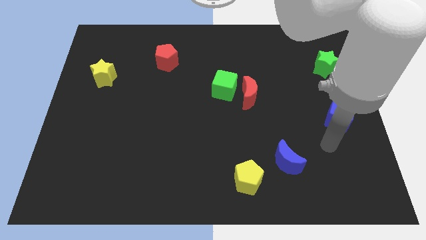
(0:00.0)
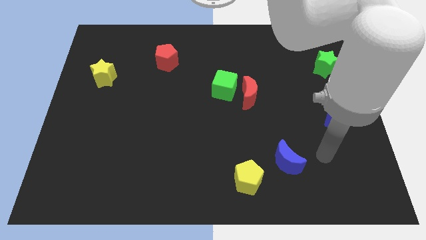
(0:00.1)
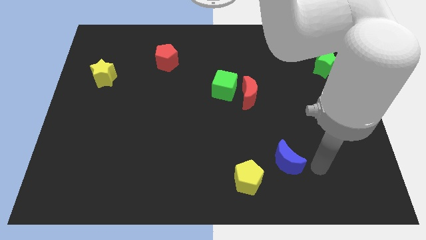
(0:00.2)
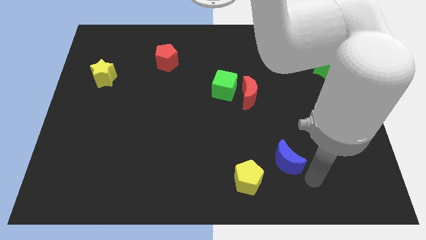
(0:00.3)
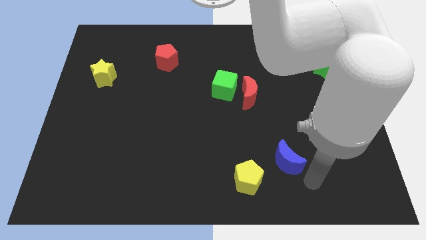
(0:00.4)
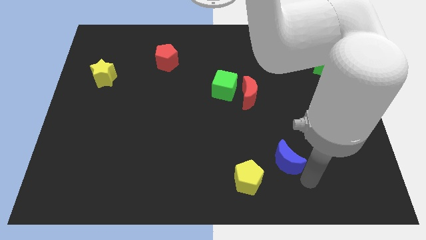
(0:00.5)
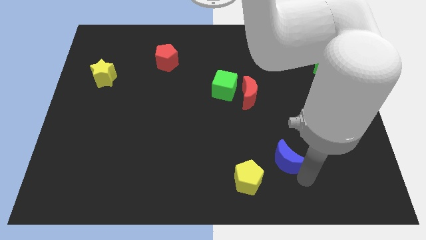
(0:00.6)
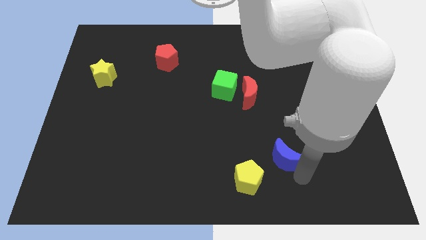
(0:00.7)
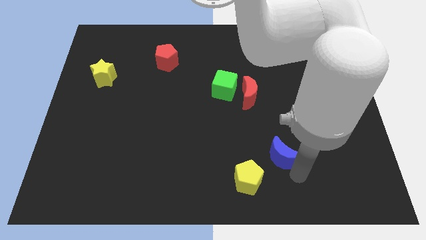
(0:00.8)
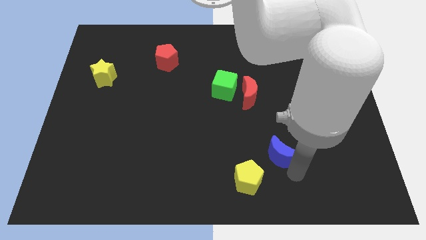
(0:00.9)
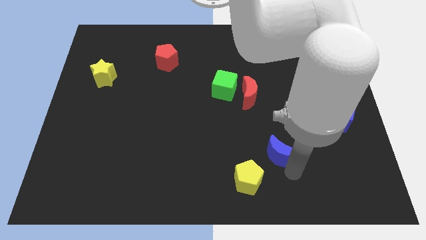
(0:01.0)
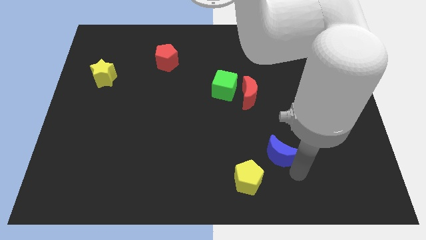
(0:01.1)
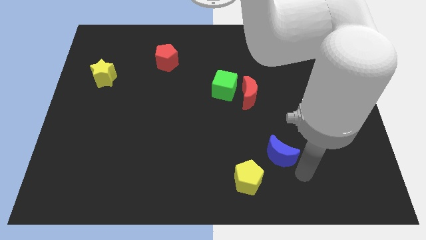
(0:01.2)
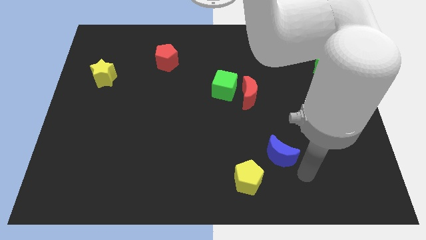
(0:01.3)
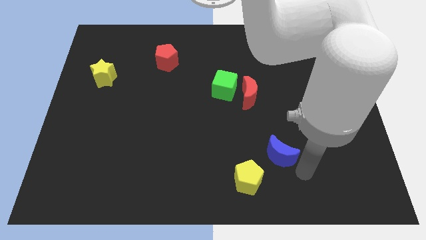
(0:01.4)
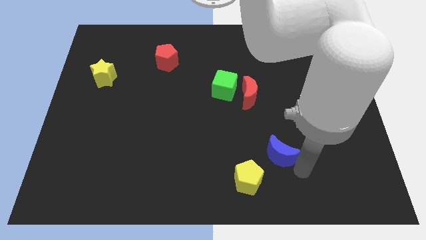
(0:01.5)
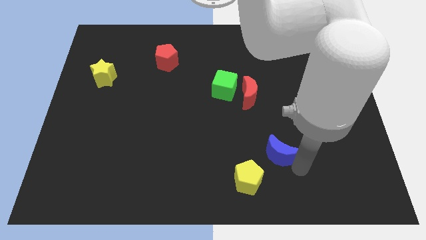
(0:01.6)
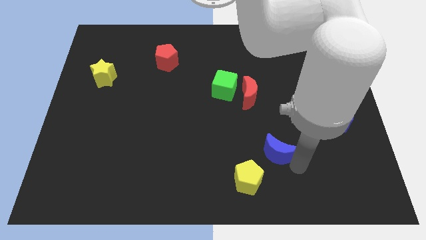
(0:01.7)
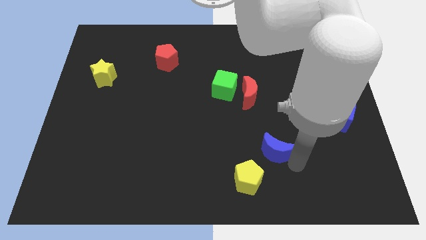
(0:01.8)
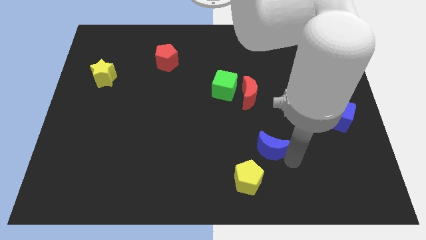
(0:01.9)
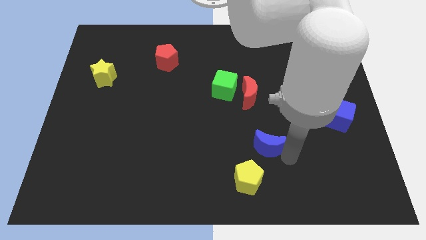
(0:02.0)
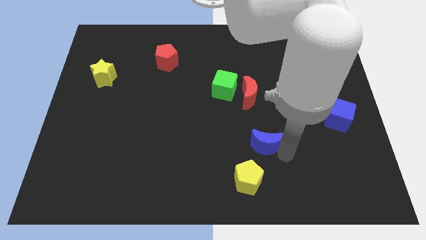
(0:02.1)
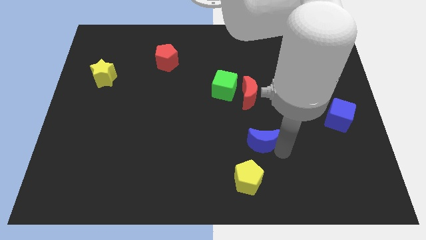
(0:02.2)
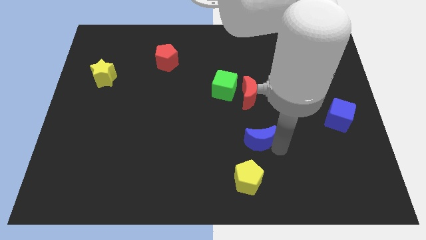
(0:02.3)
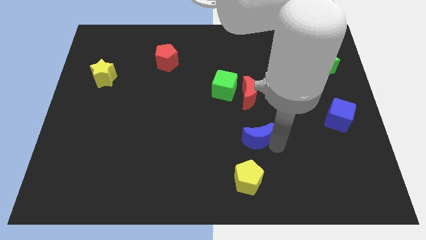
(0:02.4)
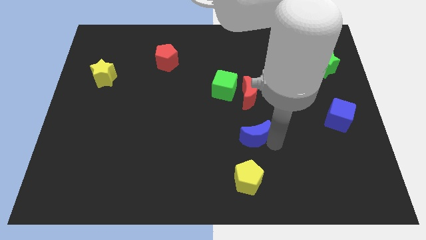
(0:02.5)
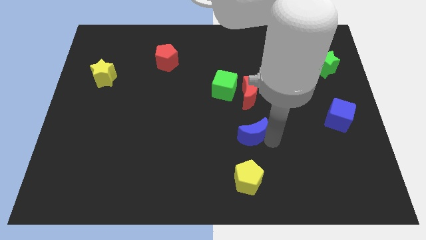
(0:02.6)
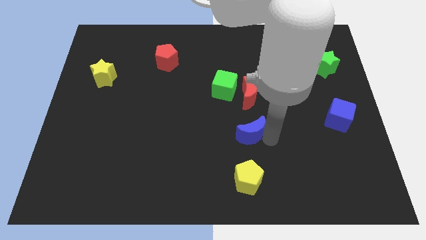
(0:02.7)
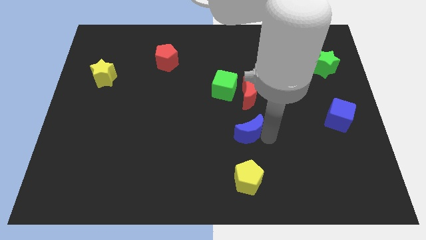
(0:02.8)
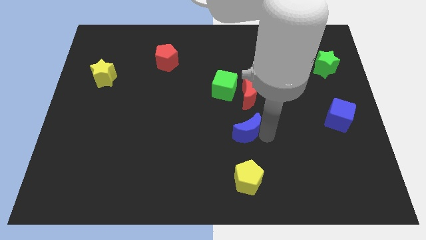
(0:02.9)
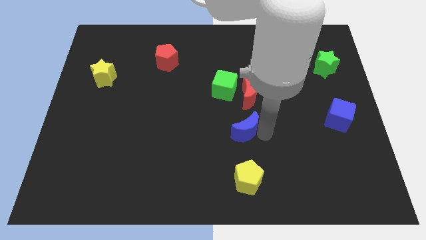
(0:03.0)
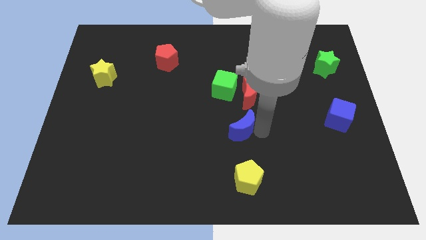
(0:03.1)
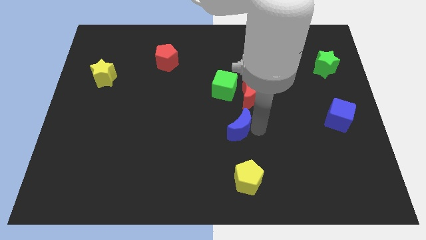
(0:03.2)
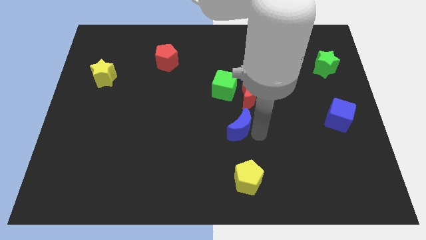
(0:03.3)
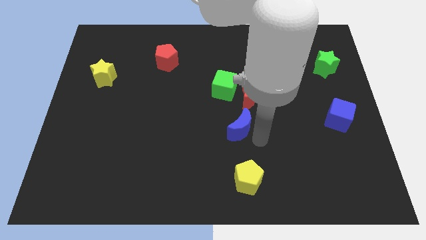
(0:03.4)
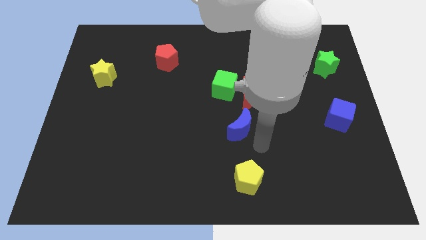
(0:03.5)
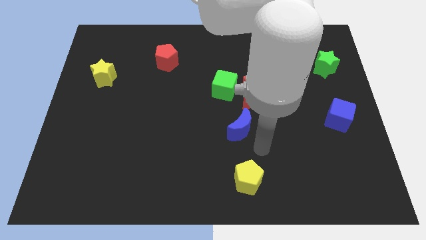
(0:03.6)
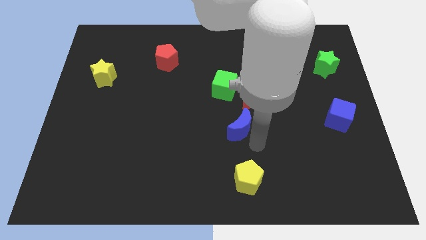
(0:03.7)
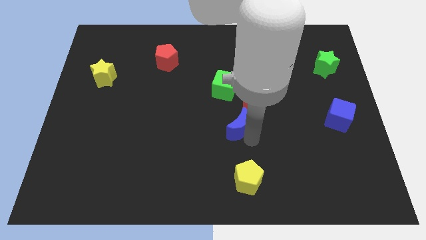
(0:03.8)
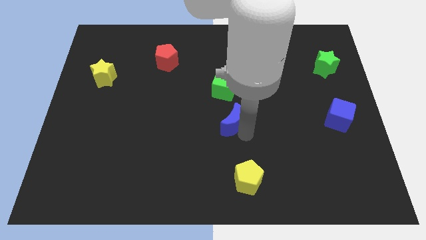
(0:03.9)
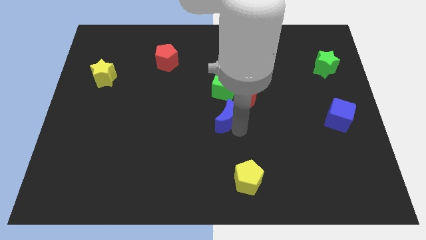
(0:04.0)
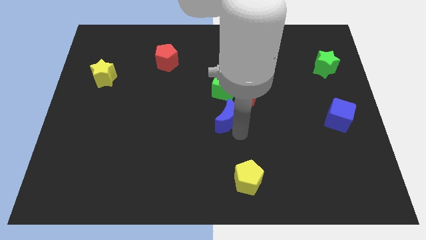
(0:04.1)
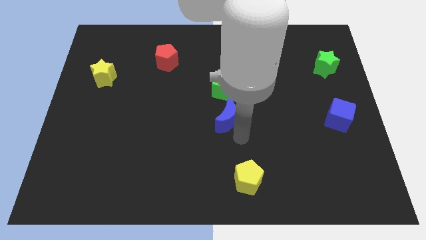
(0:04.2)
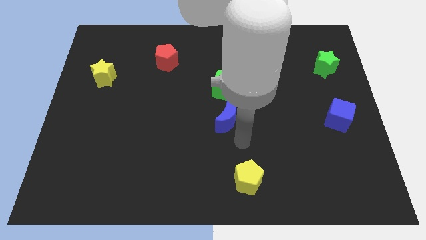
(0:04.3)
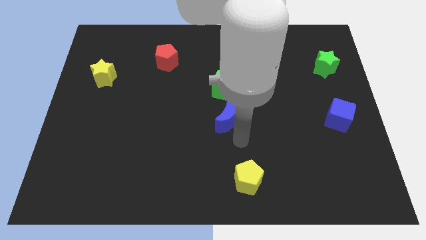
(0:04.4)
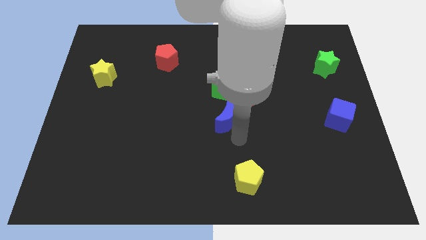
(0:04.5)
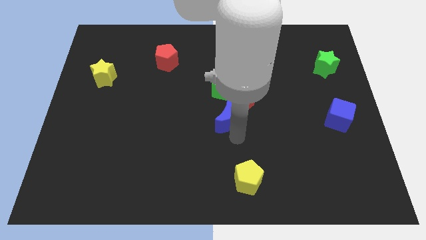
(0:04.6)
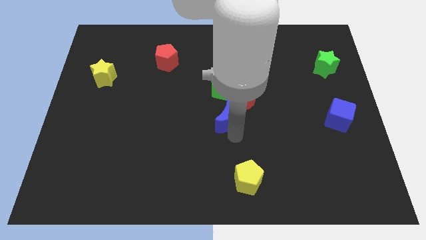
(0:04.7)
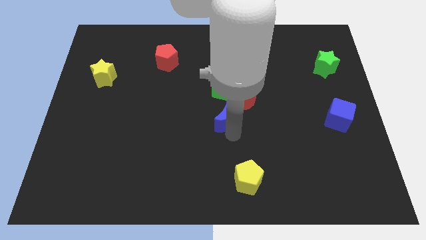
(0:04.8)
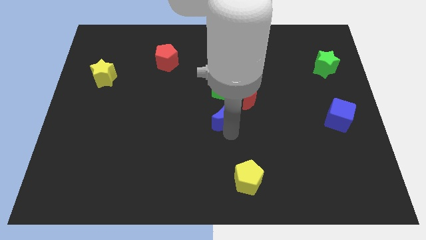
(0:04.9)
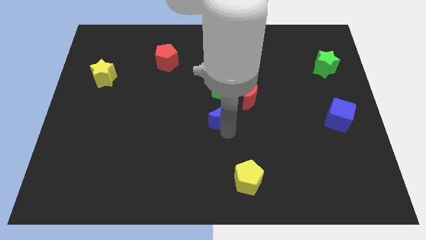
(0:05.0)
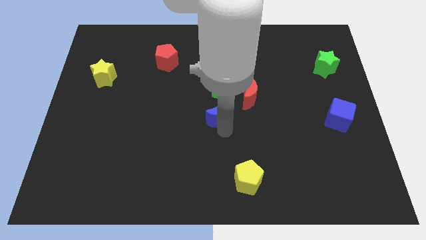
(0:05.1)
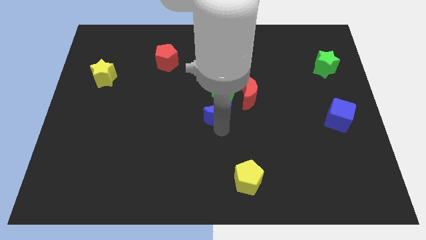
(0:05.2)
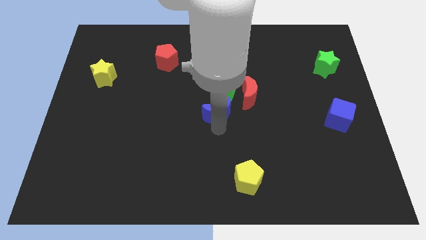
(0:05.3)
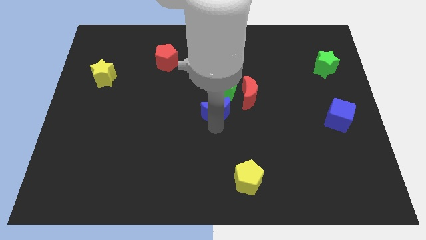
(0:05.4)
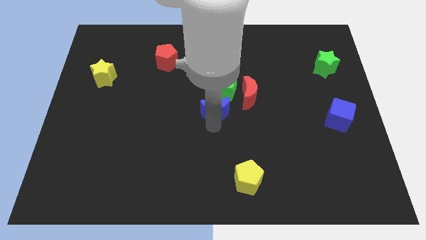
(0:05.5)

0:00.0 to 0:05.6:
move the blue moon up and then left

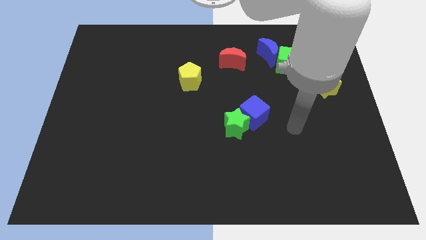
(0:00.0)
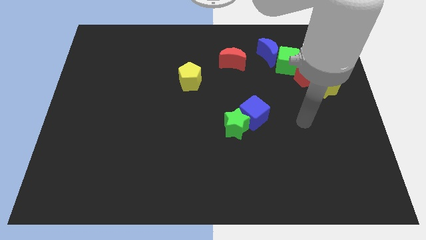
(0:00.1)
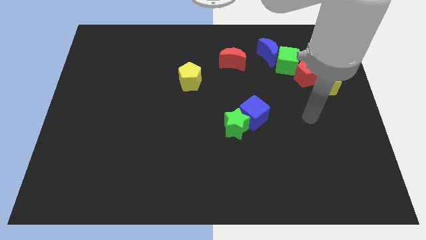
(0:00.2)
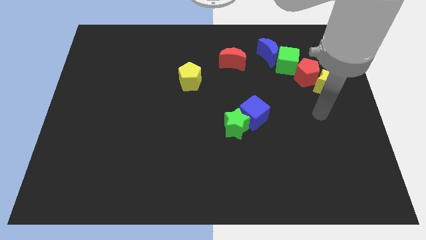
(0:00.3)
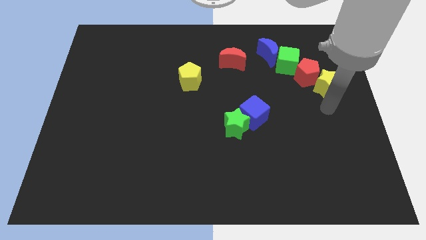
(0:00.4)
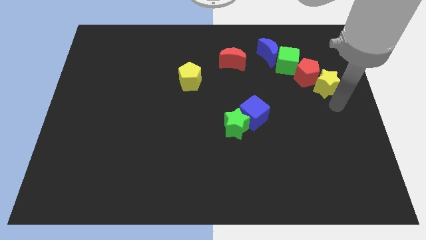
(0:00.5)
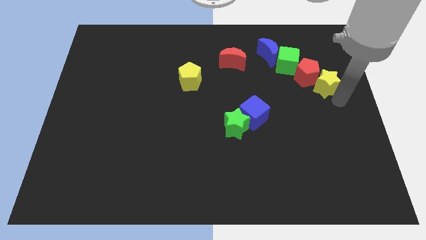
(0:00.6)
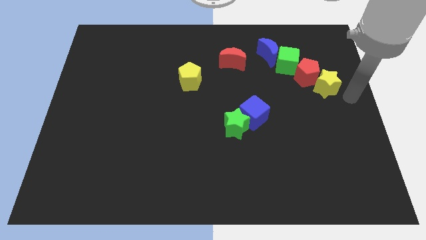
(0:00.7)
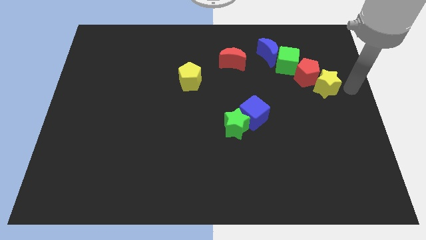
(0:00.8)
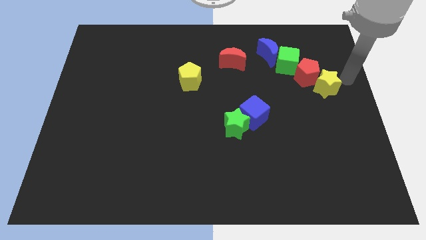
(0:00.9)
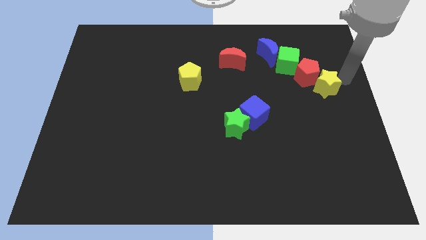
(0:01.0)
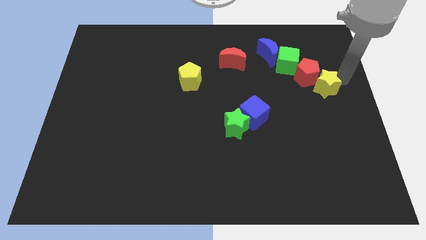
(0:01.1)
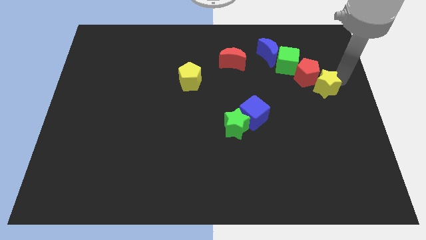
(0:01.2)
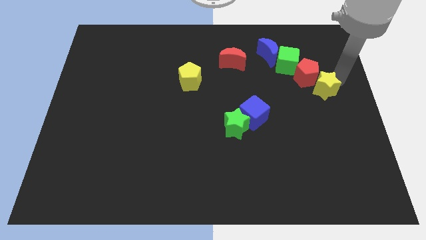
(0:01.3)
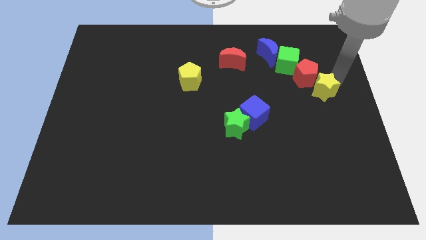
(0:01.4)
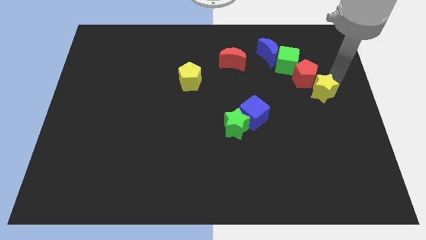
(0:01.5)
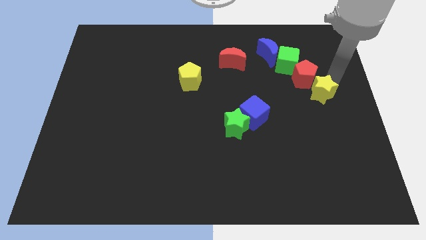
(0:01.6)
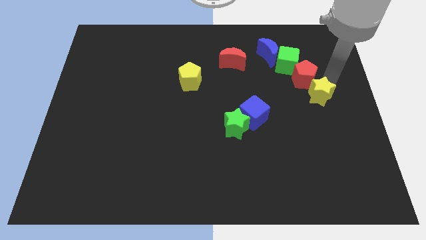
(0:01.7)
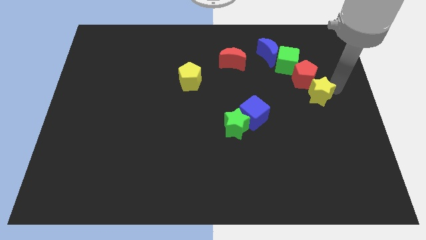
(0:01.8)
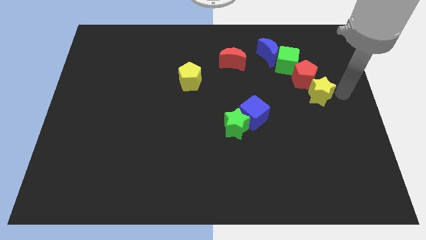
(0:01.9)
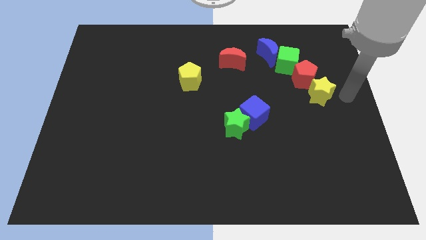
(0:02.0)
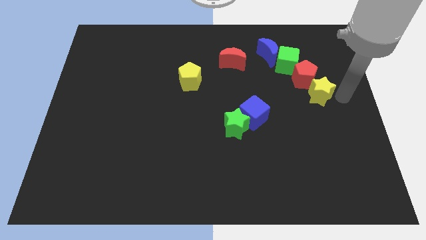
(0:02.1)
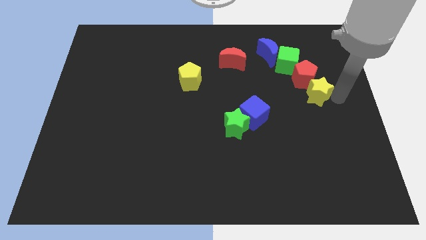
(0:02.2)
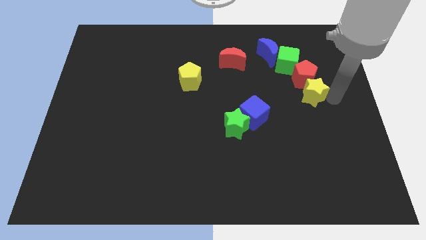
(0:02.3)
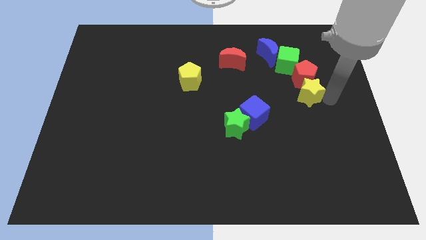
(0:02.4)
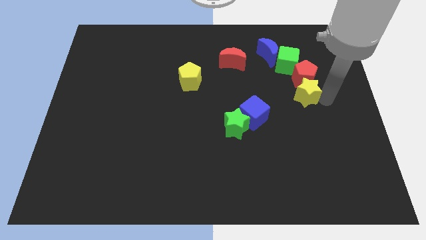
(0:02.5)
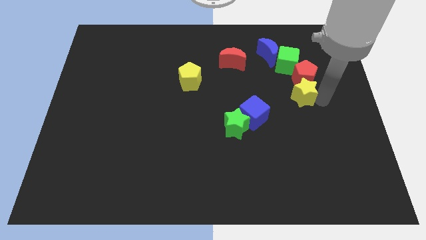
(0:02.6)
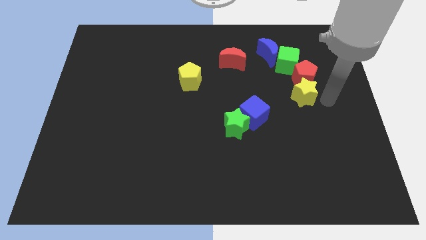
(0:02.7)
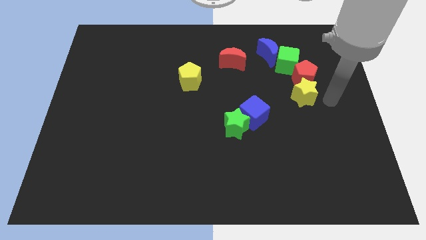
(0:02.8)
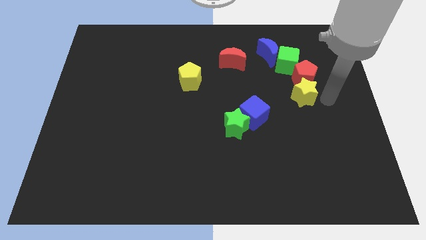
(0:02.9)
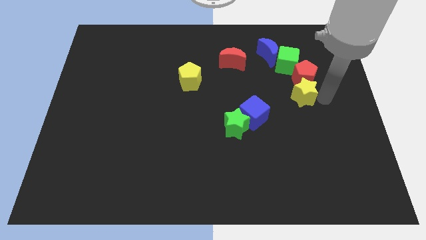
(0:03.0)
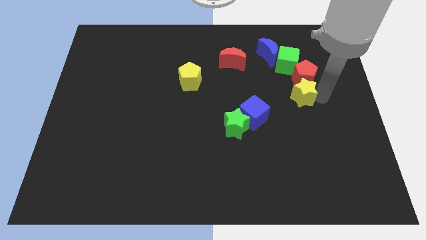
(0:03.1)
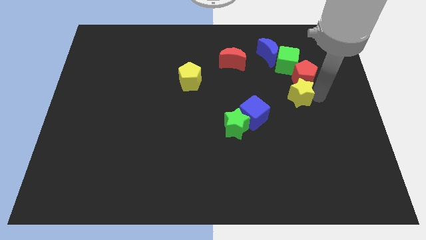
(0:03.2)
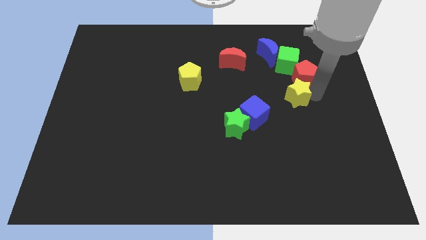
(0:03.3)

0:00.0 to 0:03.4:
move the yellow star a bit to the left
